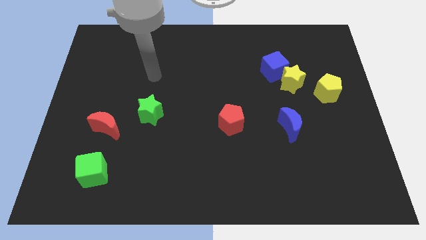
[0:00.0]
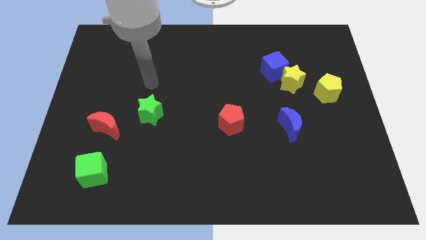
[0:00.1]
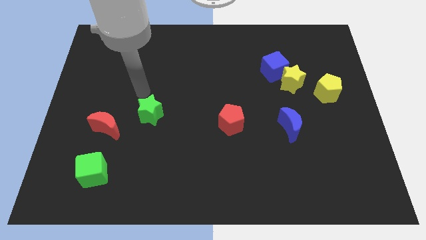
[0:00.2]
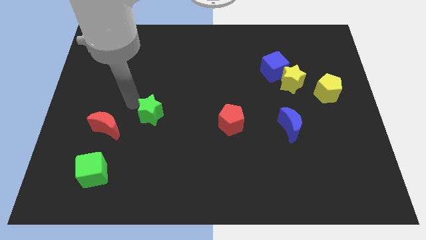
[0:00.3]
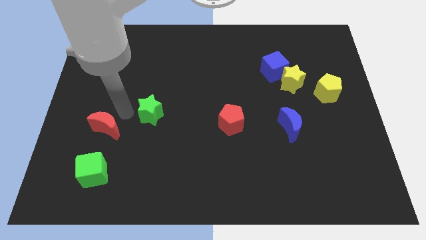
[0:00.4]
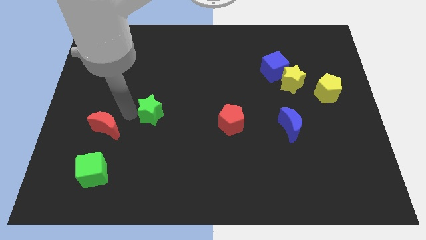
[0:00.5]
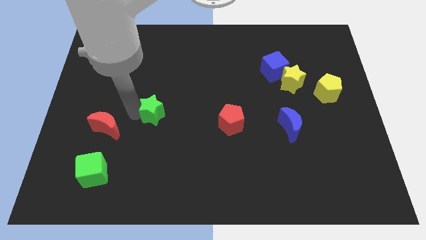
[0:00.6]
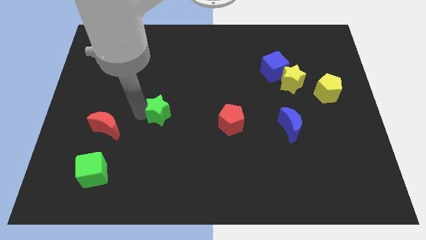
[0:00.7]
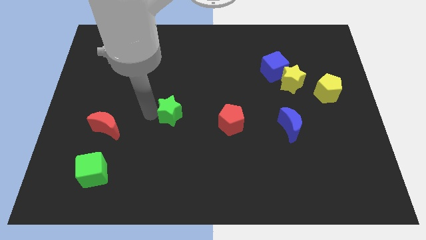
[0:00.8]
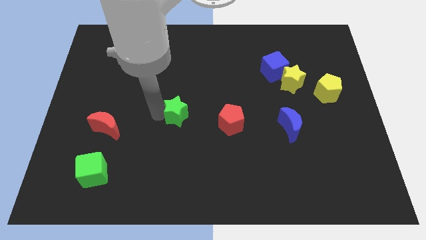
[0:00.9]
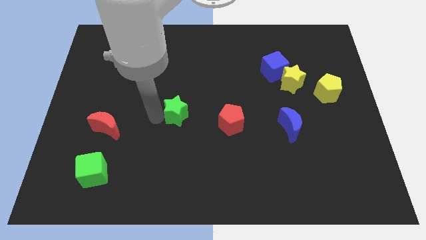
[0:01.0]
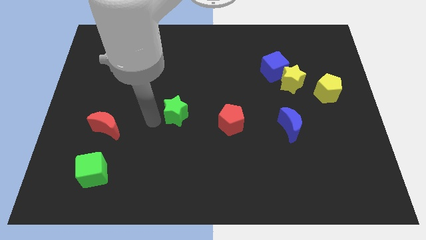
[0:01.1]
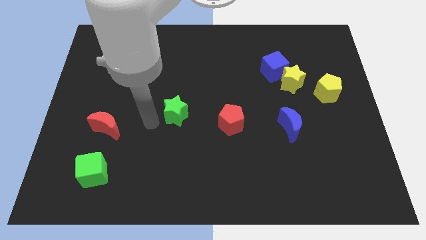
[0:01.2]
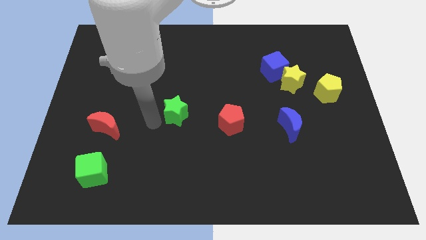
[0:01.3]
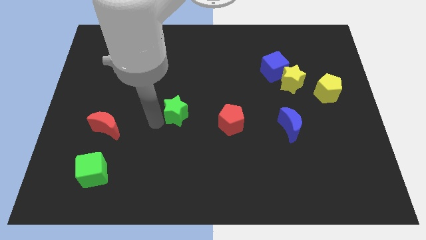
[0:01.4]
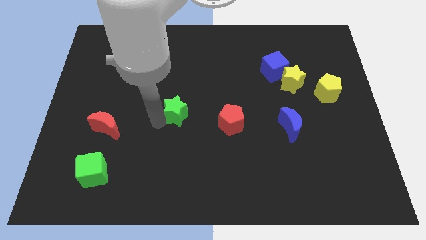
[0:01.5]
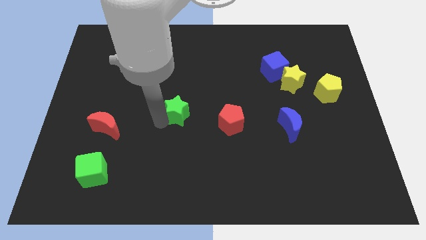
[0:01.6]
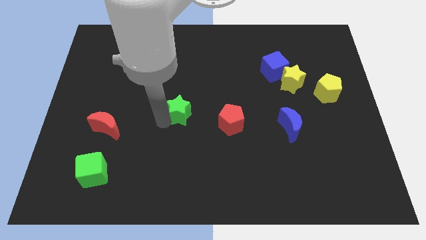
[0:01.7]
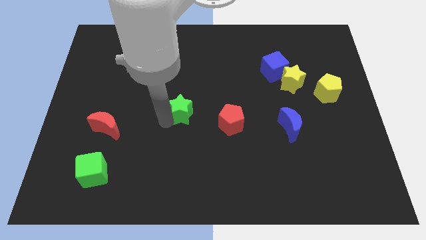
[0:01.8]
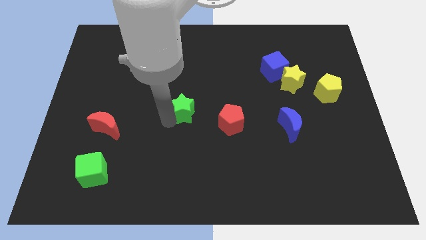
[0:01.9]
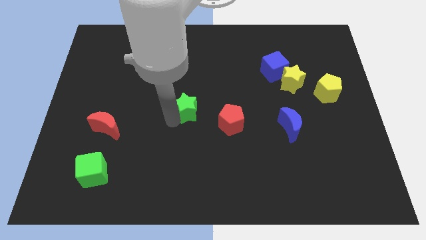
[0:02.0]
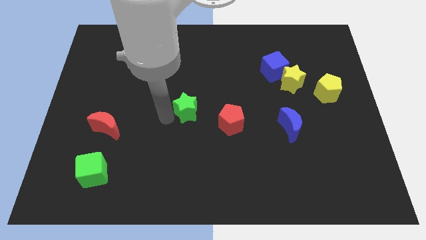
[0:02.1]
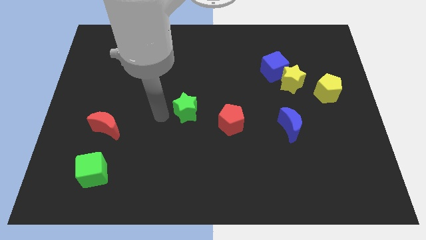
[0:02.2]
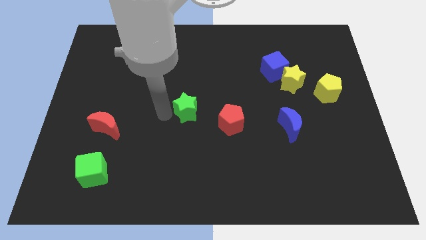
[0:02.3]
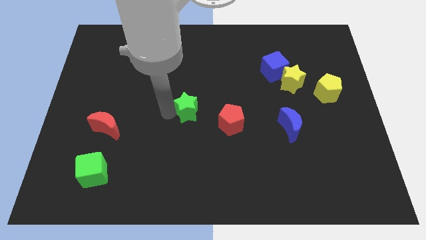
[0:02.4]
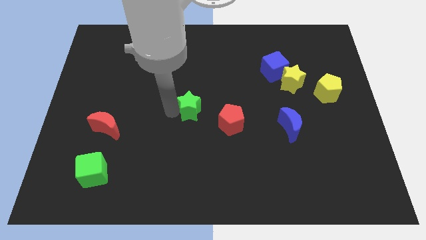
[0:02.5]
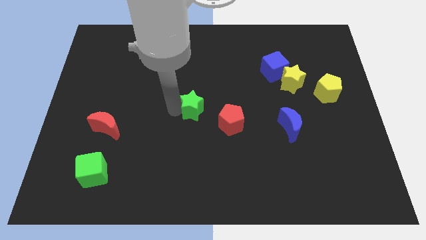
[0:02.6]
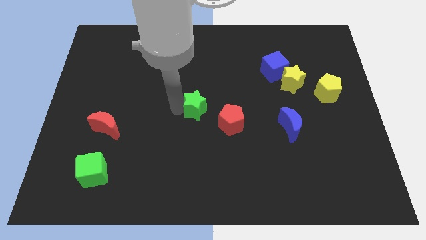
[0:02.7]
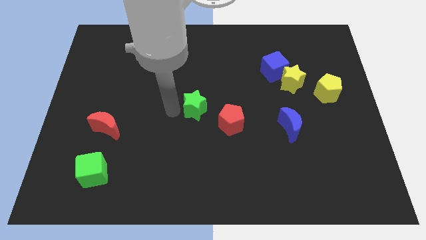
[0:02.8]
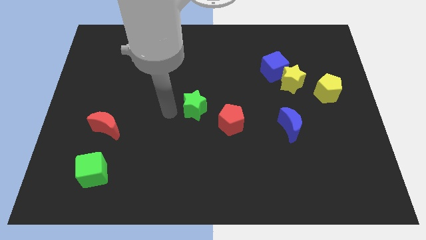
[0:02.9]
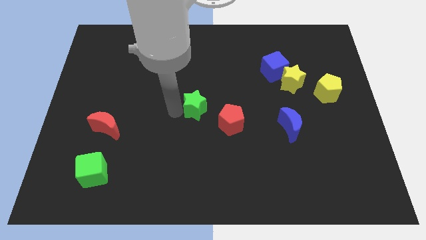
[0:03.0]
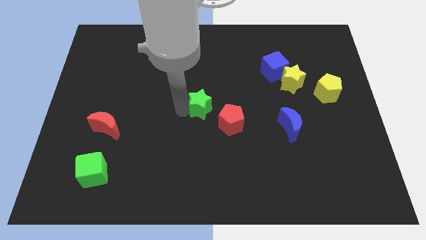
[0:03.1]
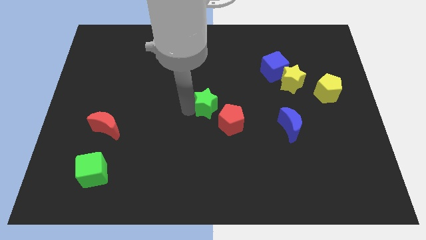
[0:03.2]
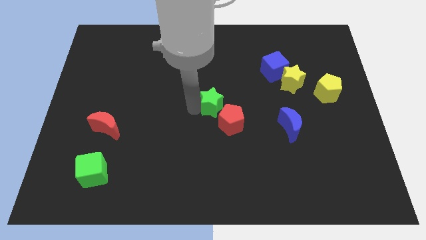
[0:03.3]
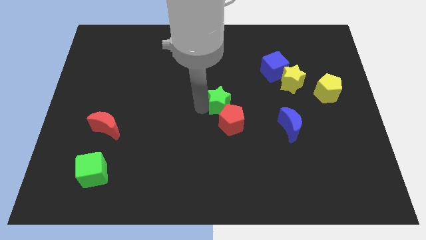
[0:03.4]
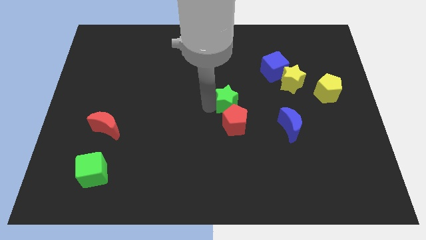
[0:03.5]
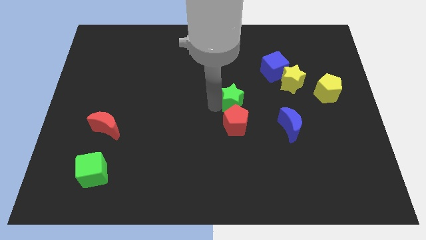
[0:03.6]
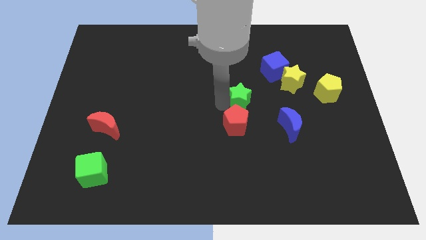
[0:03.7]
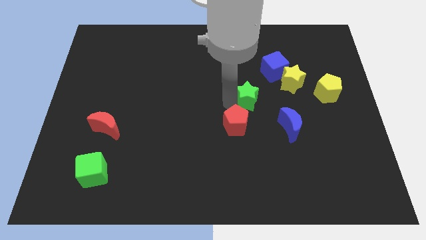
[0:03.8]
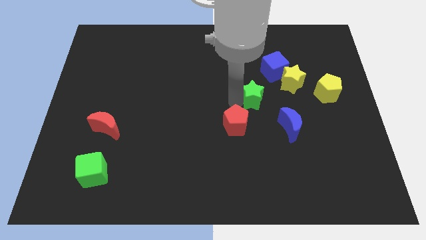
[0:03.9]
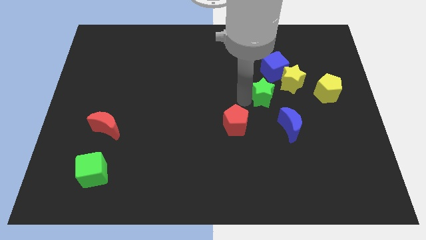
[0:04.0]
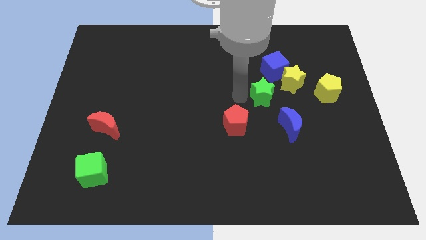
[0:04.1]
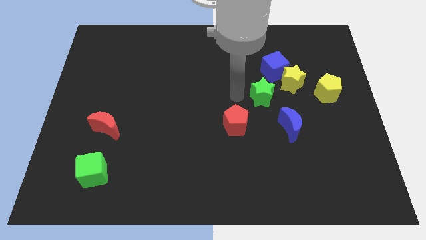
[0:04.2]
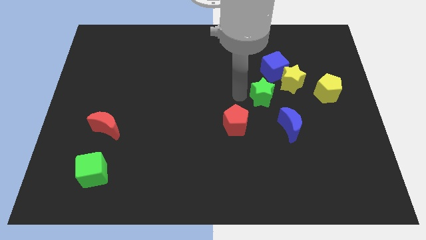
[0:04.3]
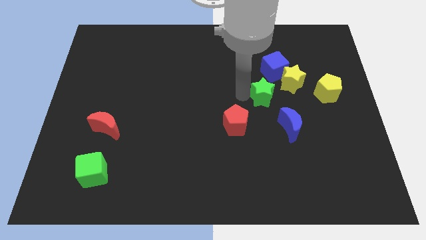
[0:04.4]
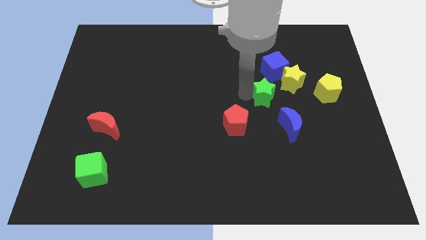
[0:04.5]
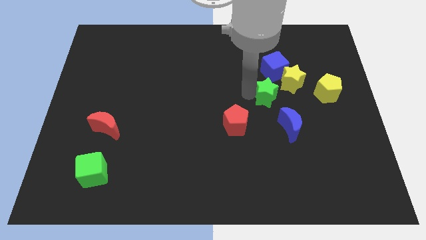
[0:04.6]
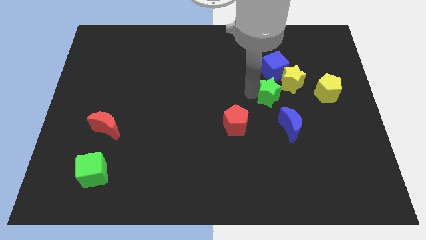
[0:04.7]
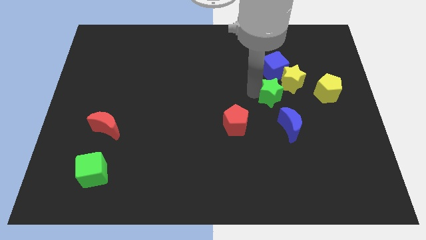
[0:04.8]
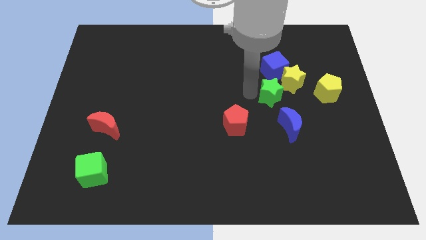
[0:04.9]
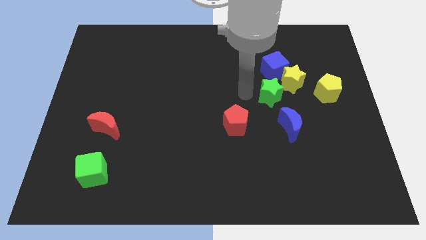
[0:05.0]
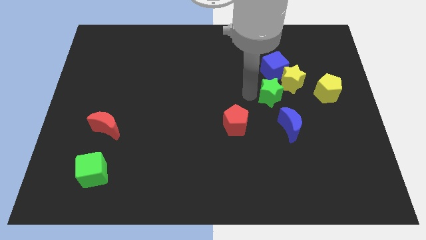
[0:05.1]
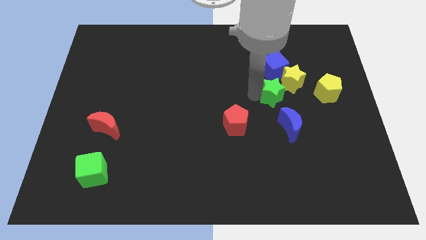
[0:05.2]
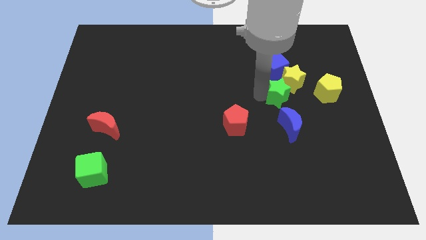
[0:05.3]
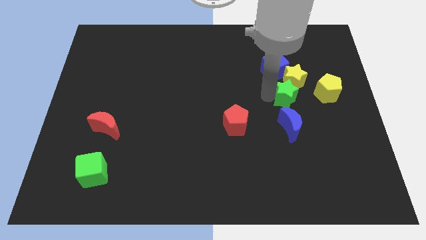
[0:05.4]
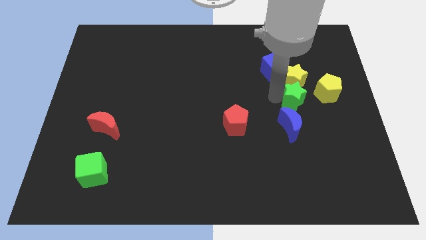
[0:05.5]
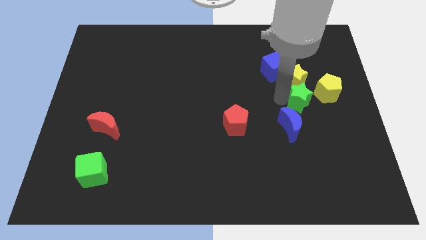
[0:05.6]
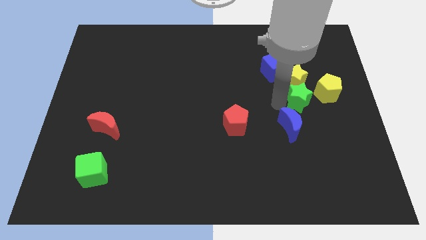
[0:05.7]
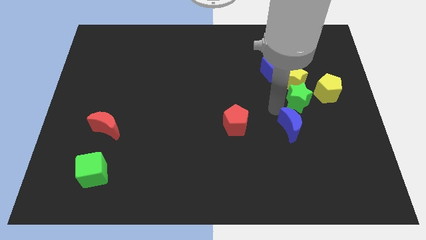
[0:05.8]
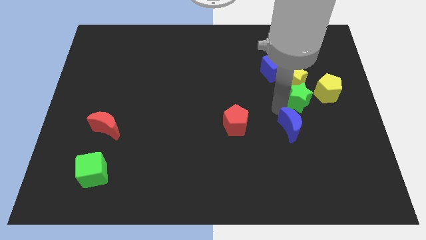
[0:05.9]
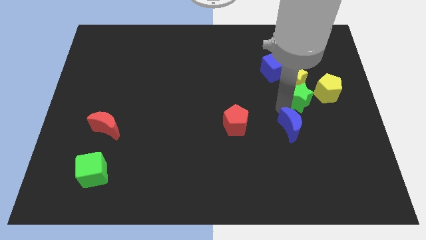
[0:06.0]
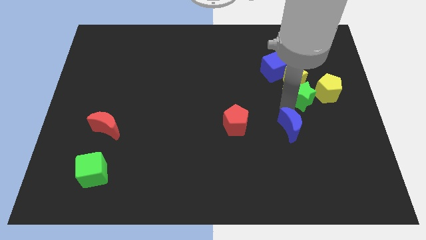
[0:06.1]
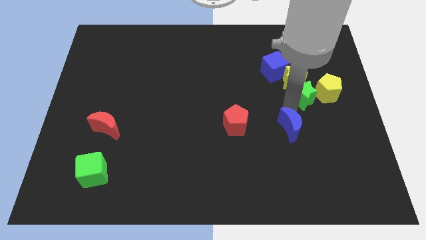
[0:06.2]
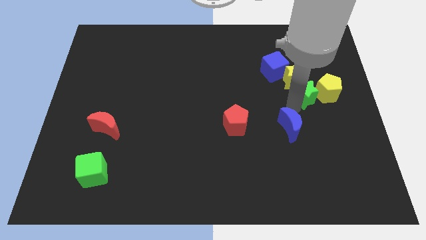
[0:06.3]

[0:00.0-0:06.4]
put the green star to the yellow pentagon

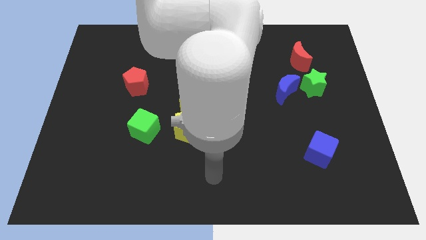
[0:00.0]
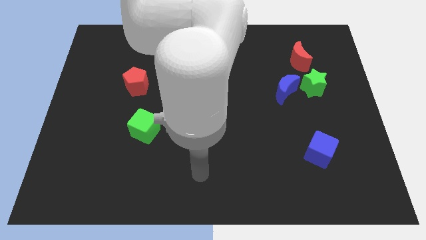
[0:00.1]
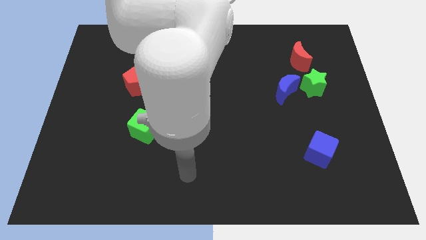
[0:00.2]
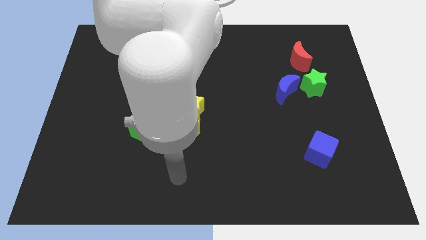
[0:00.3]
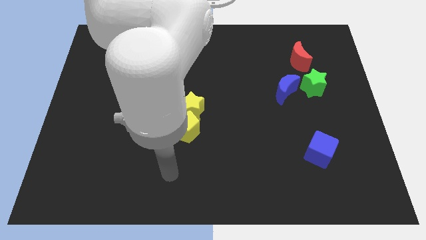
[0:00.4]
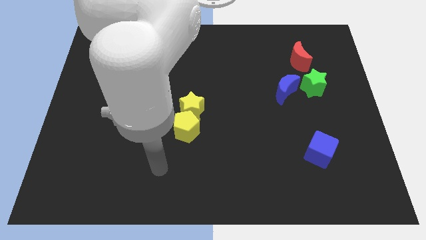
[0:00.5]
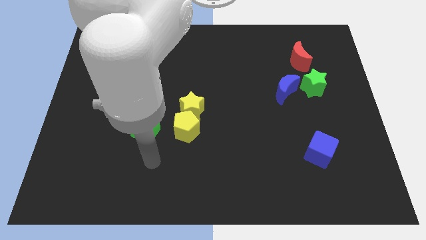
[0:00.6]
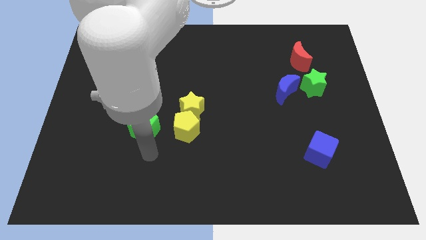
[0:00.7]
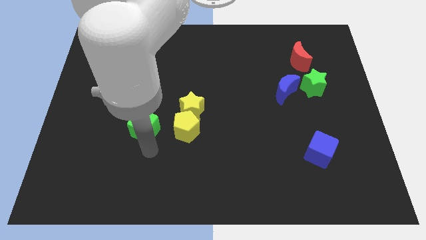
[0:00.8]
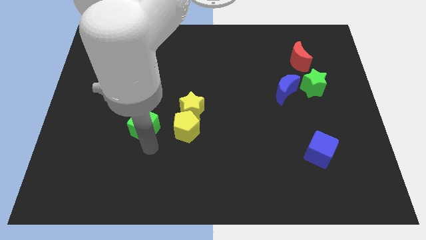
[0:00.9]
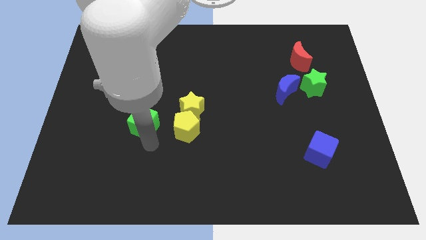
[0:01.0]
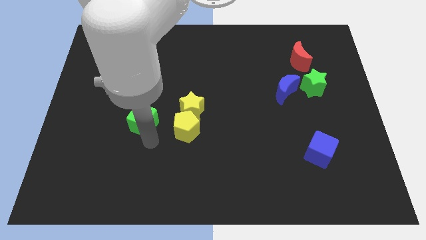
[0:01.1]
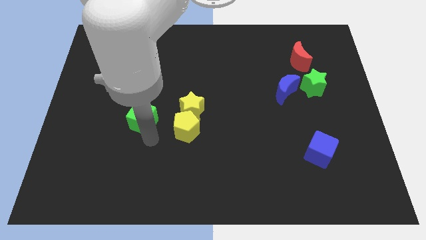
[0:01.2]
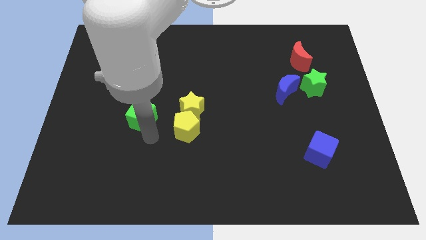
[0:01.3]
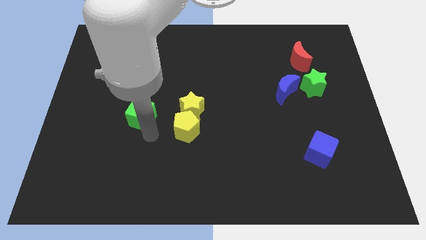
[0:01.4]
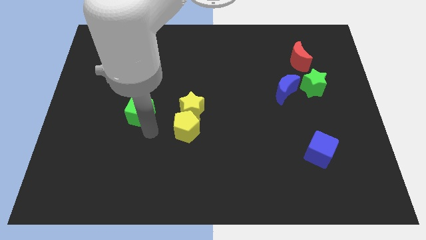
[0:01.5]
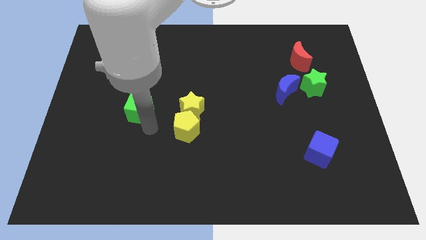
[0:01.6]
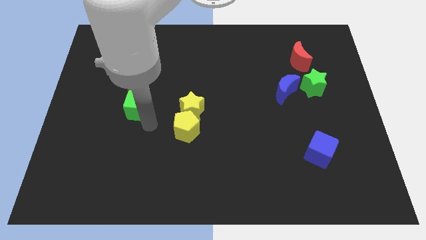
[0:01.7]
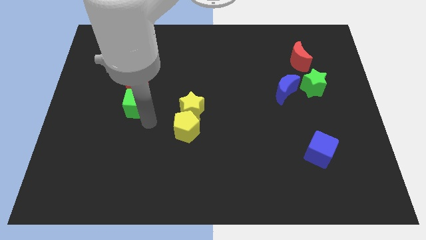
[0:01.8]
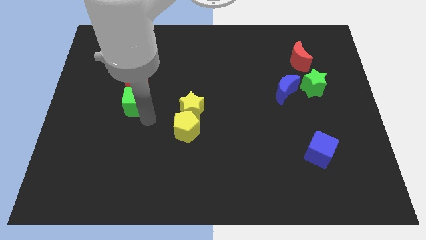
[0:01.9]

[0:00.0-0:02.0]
put the green cube next to the red pentagon
